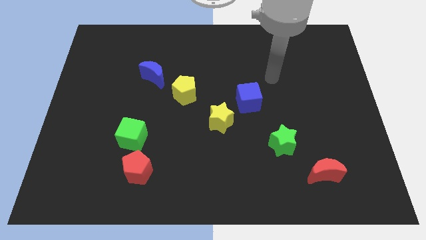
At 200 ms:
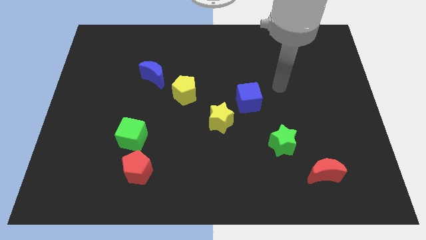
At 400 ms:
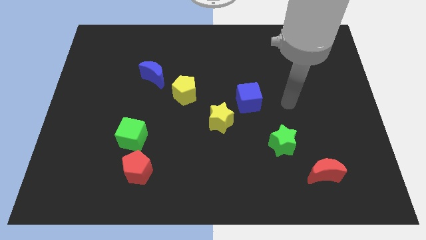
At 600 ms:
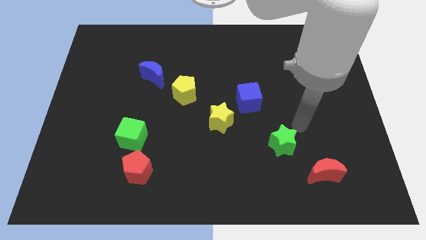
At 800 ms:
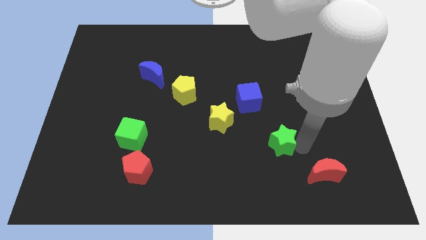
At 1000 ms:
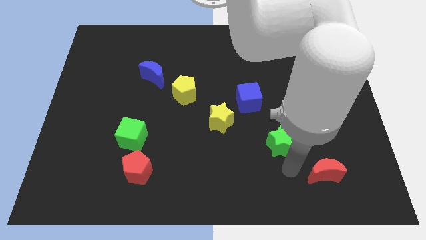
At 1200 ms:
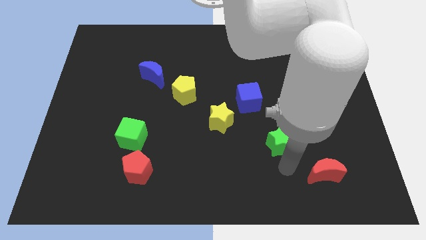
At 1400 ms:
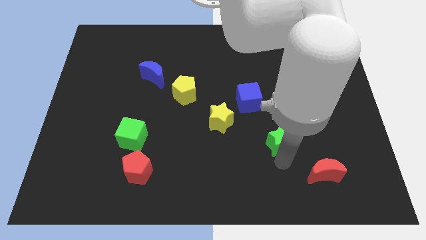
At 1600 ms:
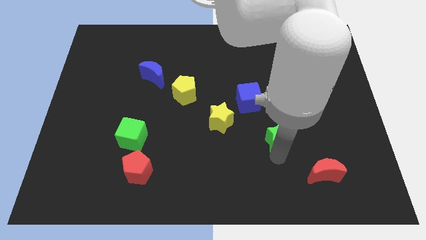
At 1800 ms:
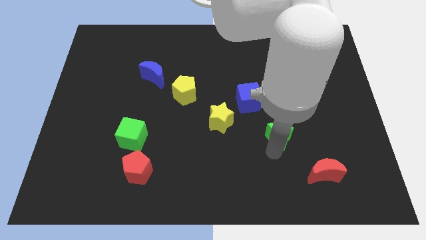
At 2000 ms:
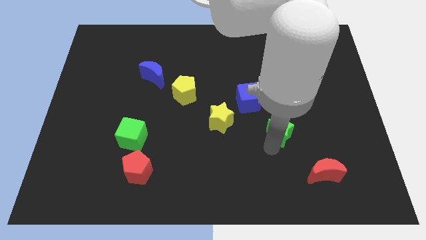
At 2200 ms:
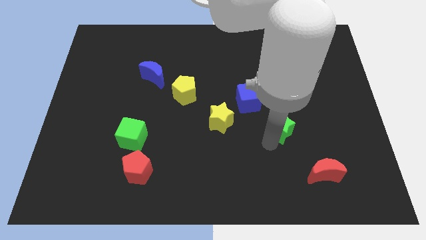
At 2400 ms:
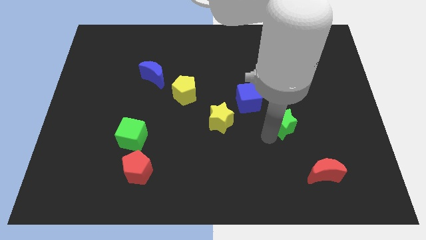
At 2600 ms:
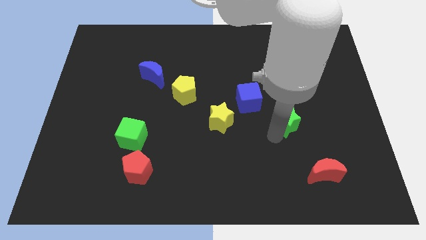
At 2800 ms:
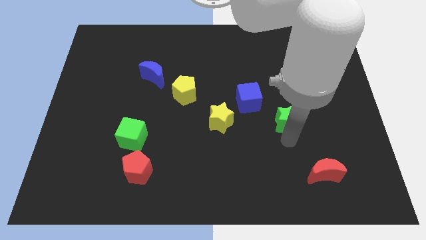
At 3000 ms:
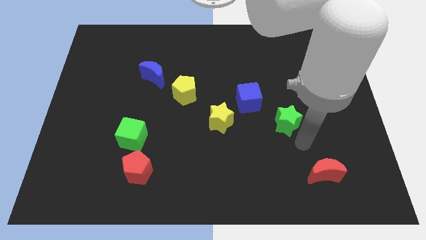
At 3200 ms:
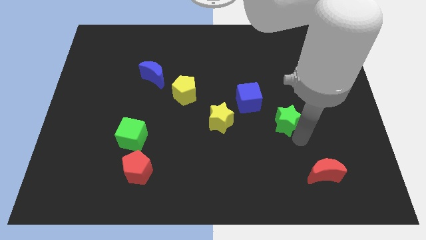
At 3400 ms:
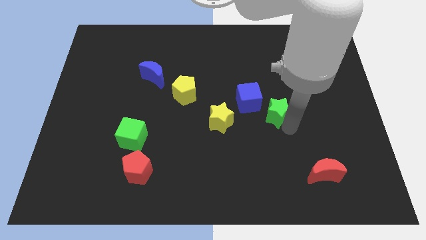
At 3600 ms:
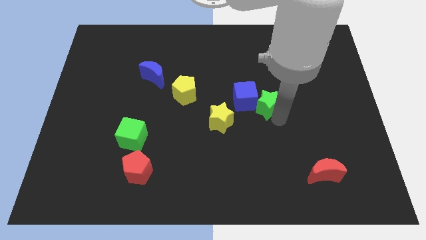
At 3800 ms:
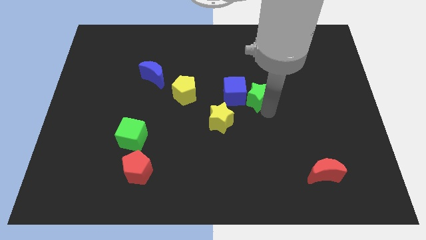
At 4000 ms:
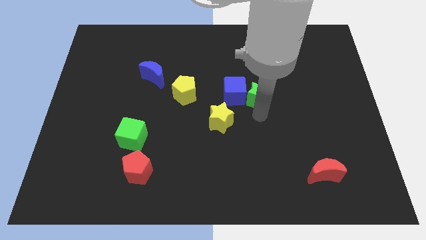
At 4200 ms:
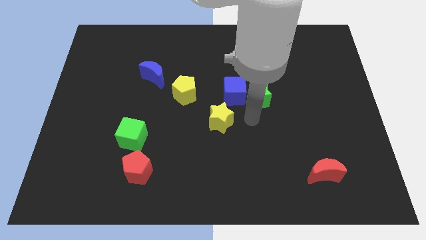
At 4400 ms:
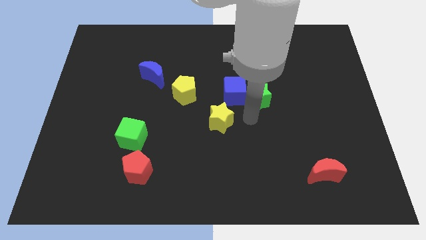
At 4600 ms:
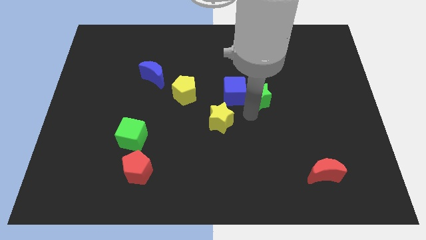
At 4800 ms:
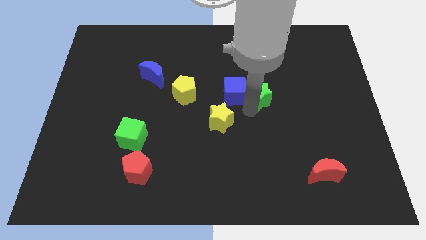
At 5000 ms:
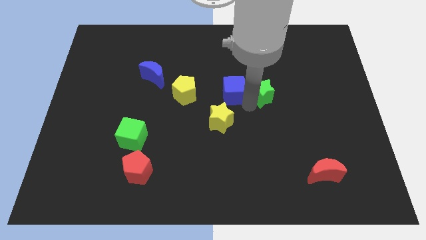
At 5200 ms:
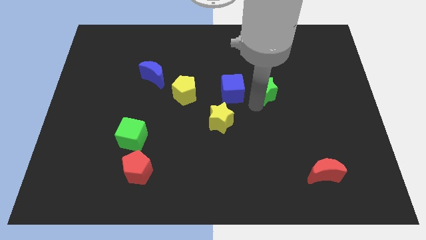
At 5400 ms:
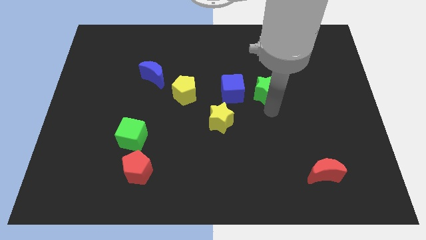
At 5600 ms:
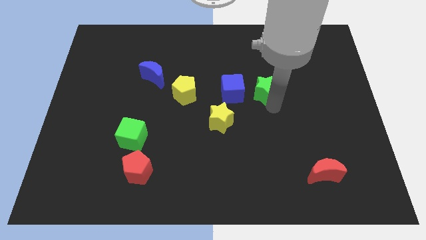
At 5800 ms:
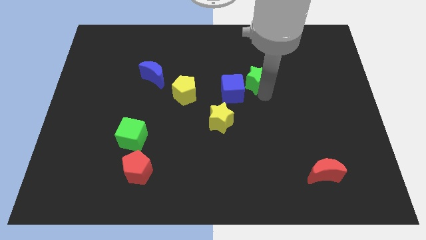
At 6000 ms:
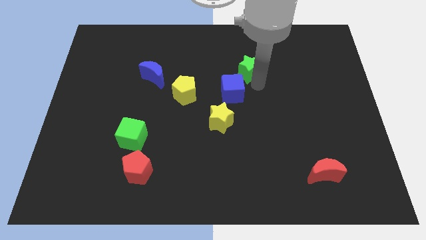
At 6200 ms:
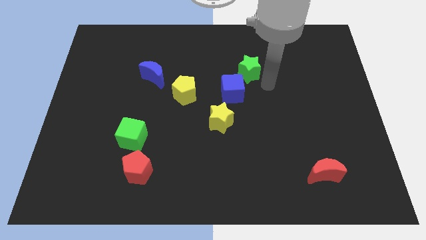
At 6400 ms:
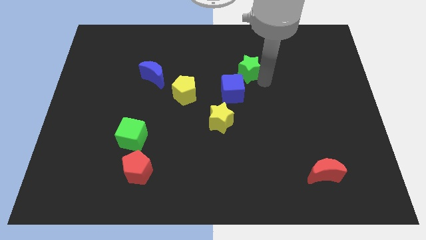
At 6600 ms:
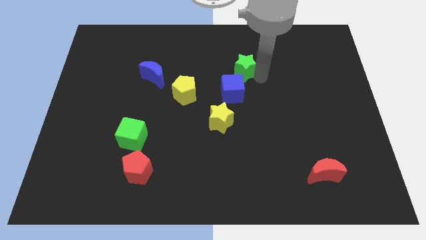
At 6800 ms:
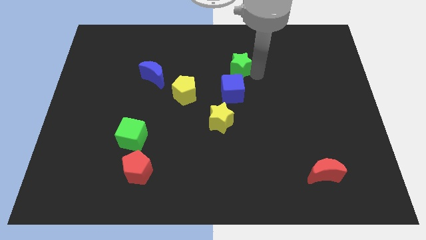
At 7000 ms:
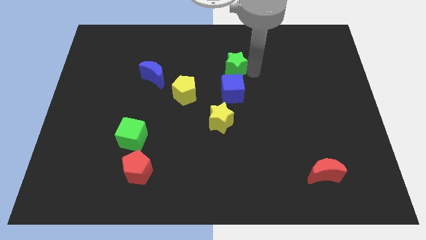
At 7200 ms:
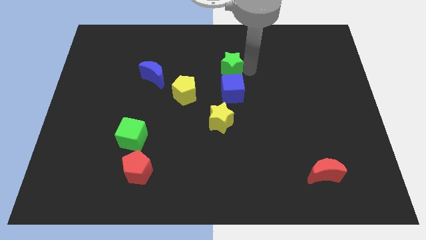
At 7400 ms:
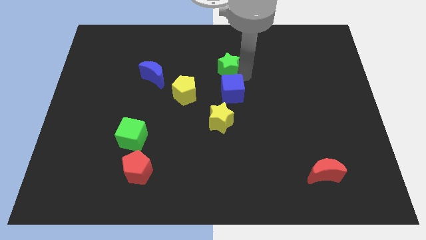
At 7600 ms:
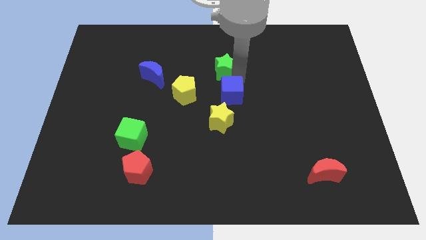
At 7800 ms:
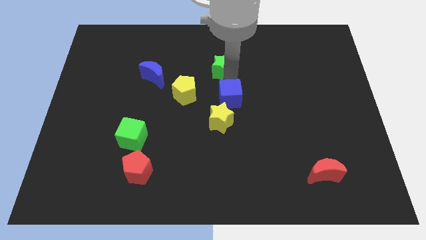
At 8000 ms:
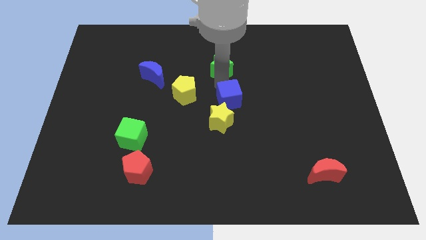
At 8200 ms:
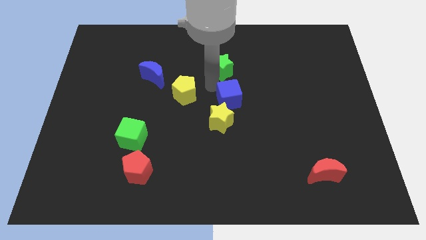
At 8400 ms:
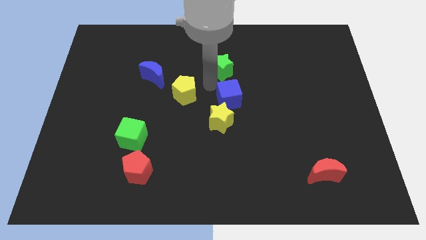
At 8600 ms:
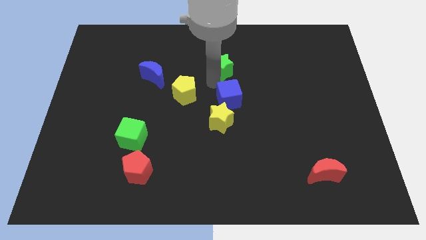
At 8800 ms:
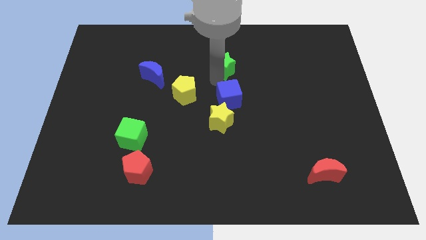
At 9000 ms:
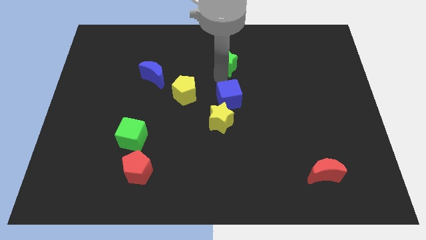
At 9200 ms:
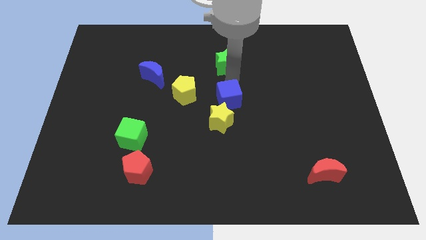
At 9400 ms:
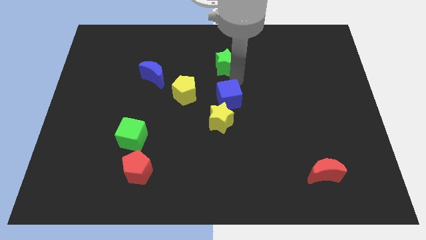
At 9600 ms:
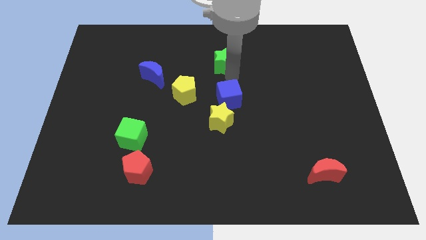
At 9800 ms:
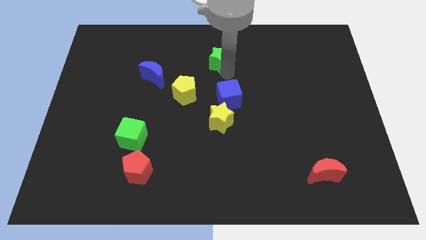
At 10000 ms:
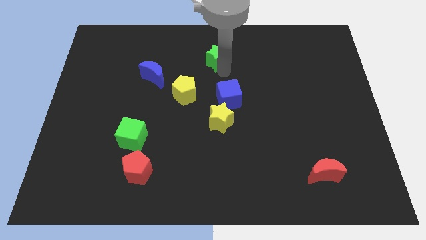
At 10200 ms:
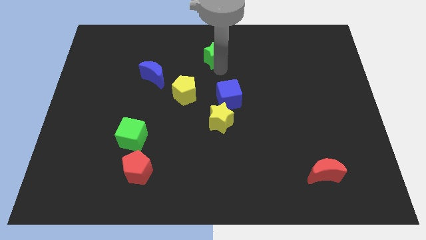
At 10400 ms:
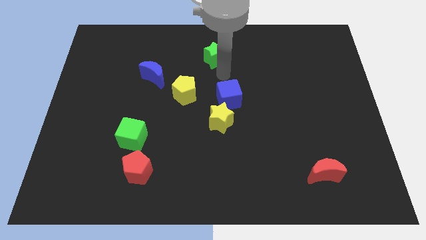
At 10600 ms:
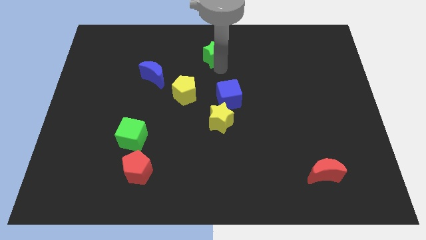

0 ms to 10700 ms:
put the green star to the top side

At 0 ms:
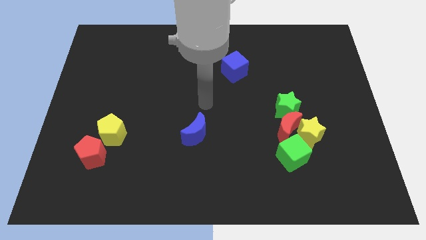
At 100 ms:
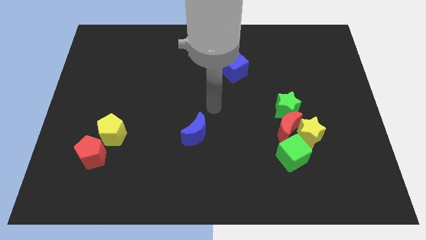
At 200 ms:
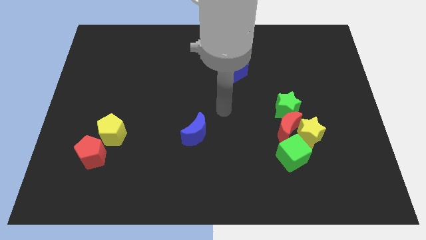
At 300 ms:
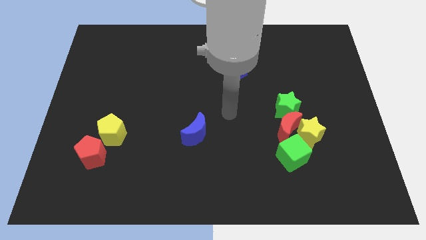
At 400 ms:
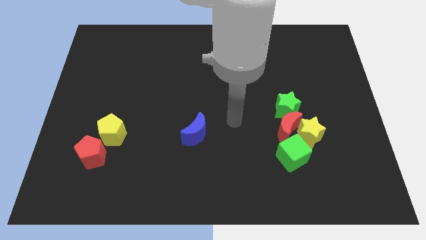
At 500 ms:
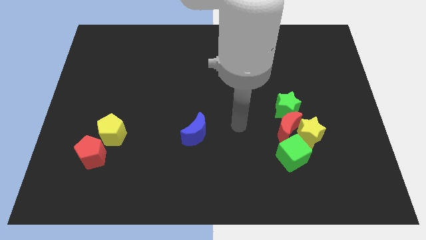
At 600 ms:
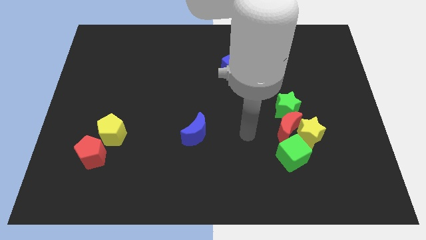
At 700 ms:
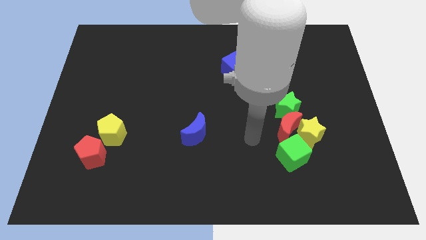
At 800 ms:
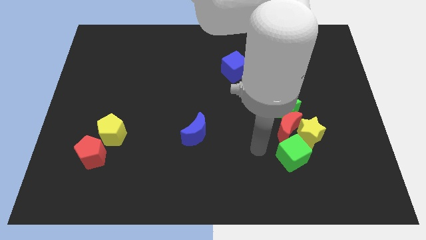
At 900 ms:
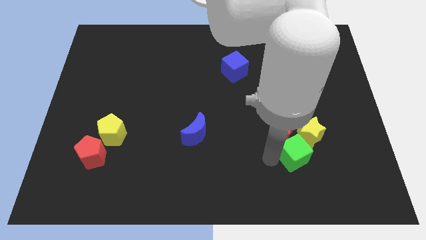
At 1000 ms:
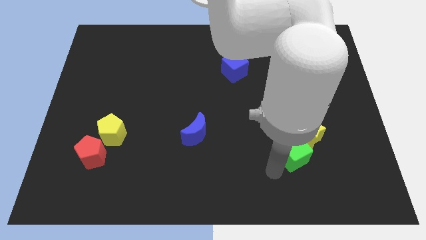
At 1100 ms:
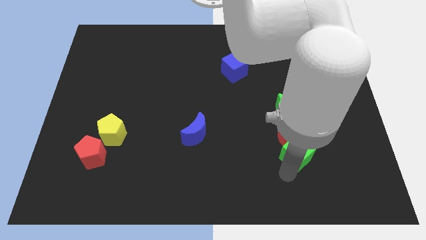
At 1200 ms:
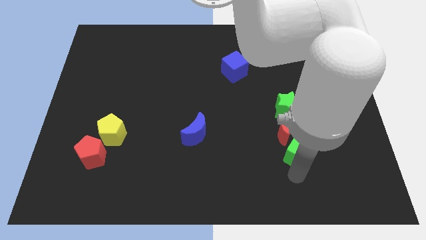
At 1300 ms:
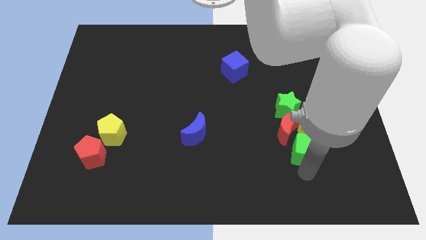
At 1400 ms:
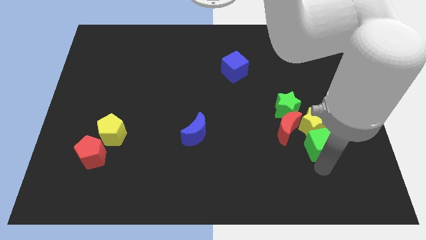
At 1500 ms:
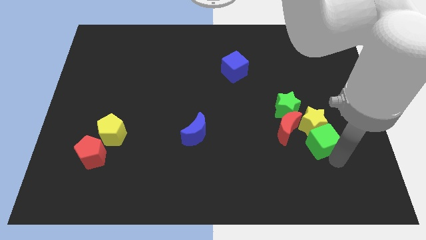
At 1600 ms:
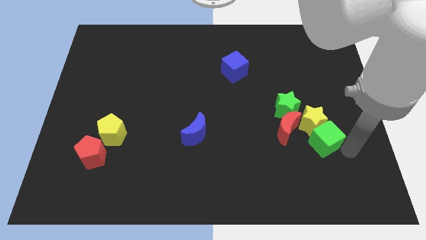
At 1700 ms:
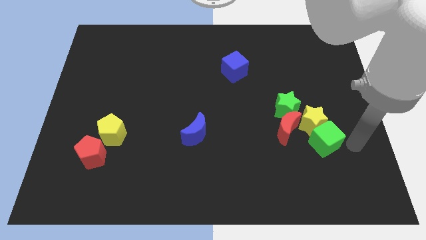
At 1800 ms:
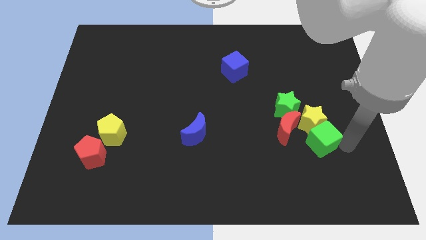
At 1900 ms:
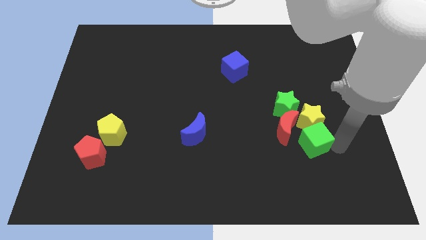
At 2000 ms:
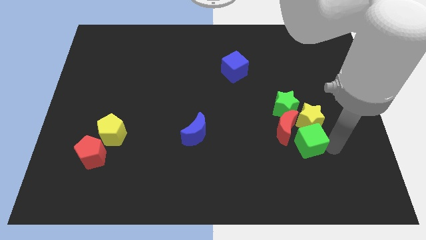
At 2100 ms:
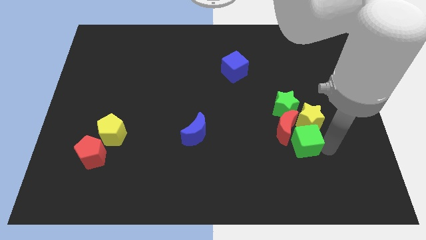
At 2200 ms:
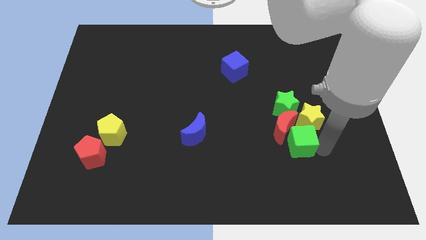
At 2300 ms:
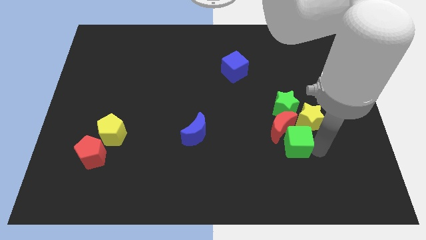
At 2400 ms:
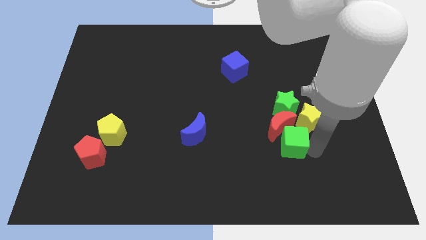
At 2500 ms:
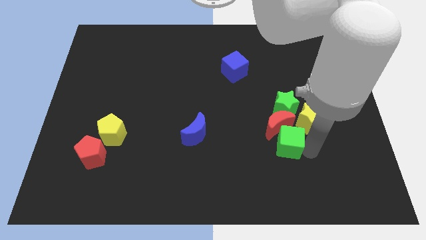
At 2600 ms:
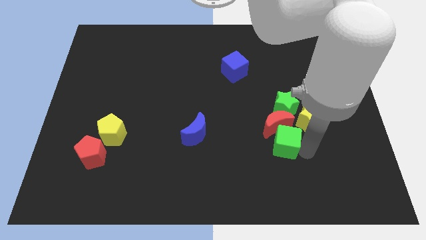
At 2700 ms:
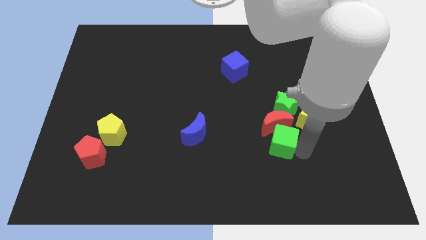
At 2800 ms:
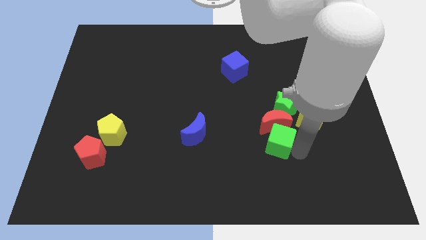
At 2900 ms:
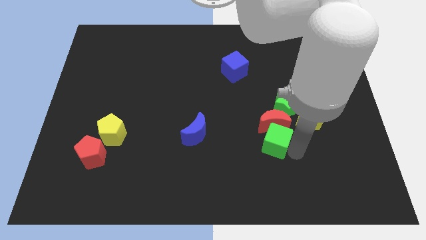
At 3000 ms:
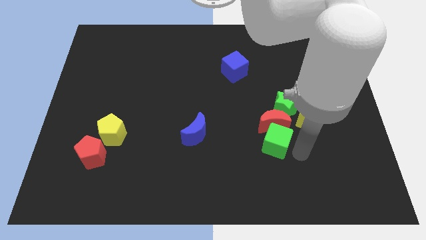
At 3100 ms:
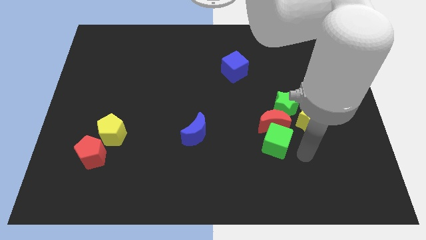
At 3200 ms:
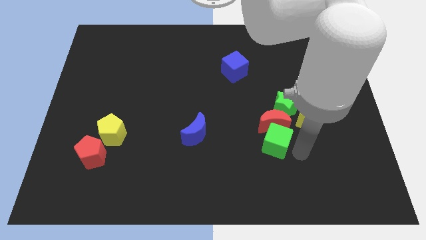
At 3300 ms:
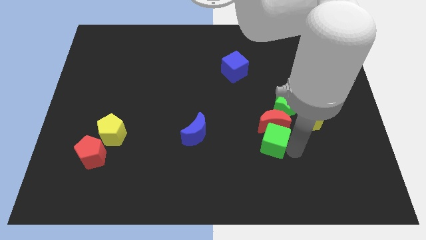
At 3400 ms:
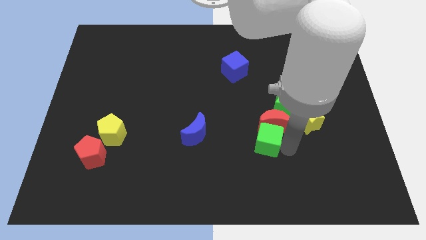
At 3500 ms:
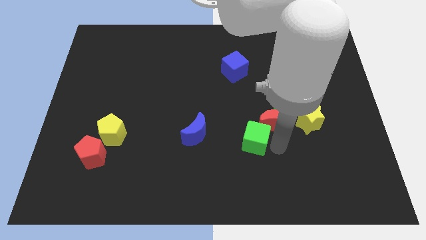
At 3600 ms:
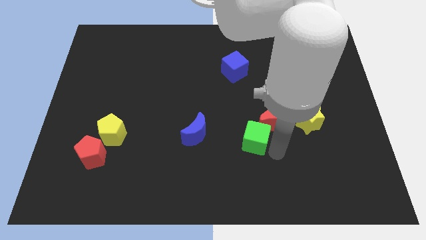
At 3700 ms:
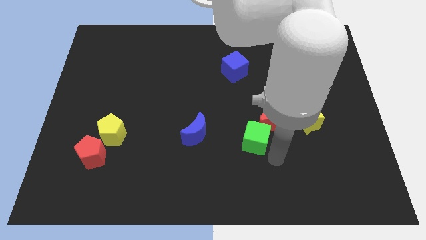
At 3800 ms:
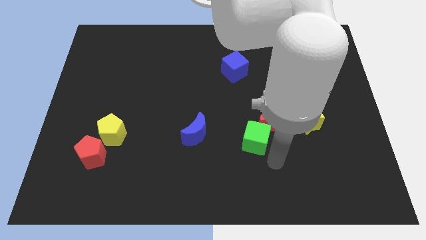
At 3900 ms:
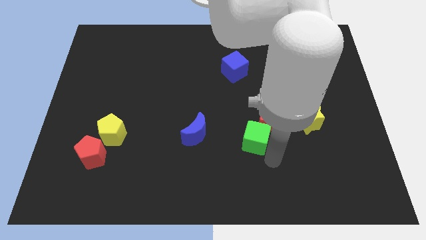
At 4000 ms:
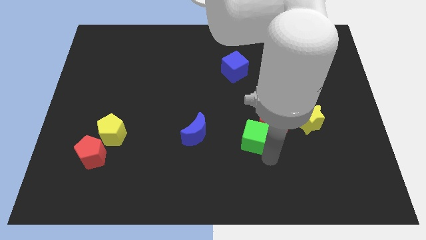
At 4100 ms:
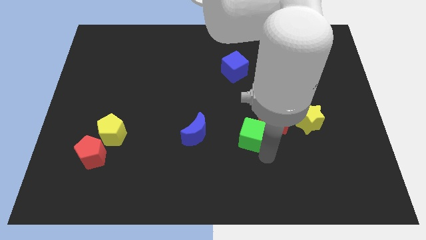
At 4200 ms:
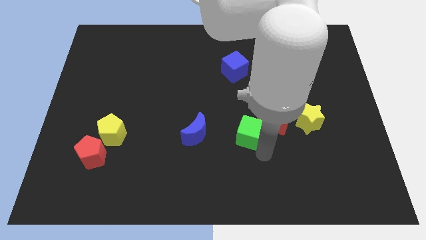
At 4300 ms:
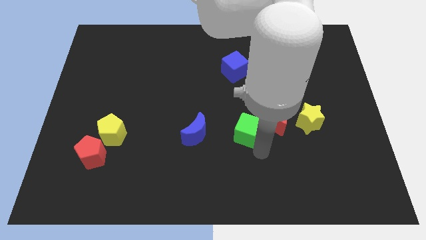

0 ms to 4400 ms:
slide the green cube to the center of the board
